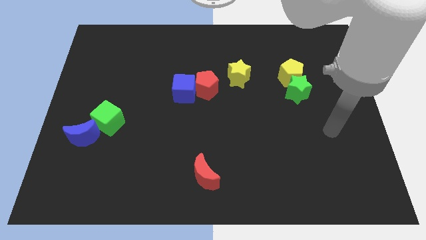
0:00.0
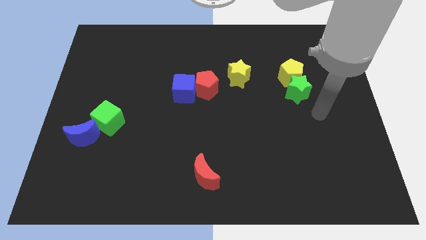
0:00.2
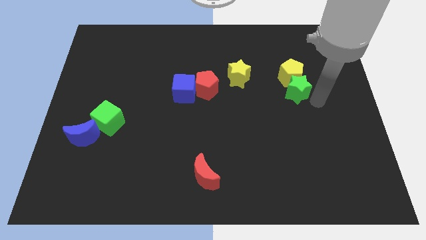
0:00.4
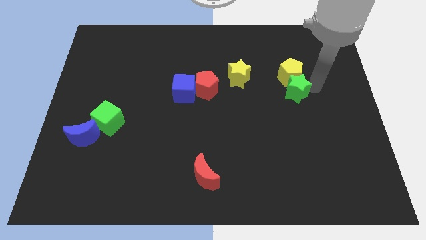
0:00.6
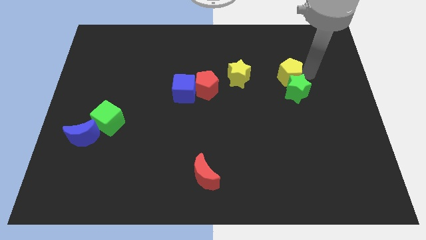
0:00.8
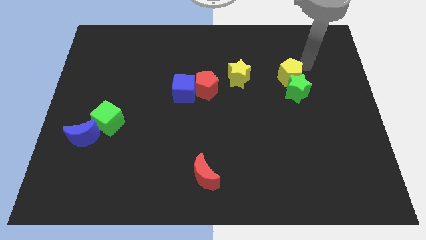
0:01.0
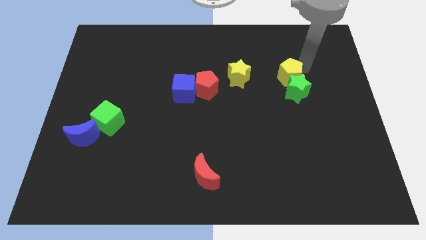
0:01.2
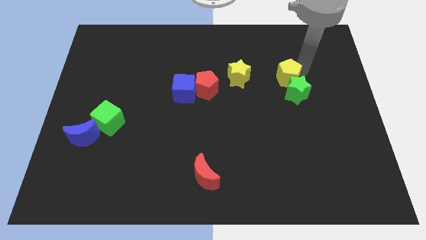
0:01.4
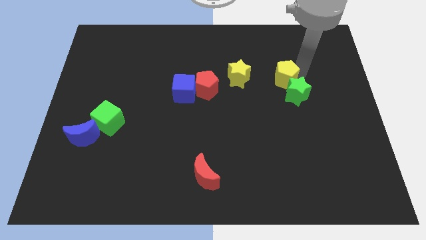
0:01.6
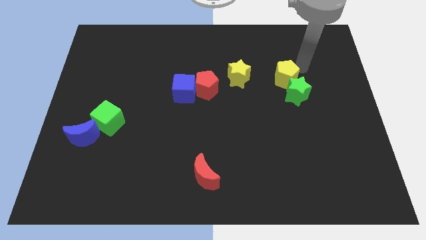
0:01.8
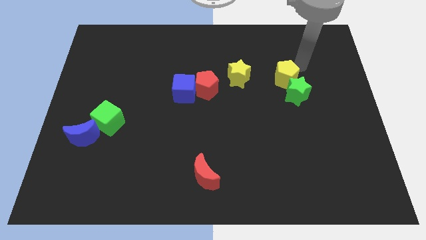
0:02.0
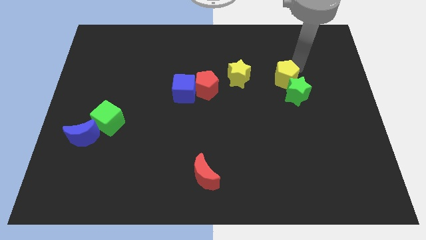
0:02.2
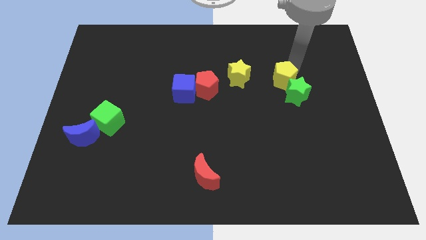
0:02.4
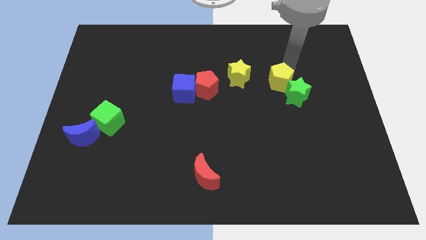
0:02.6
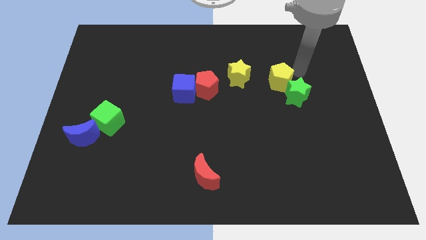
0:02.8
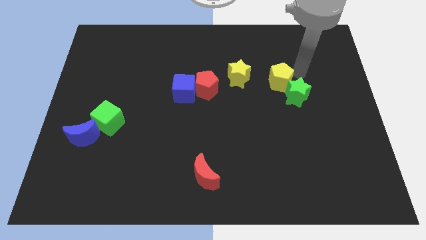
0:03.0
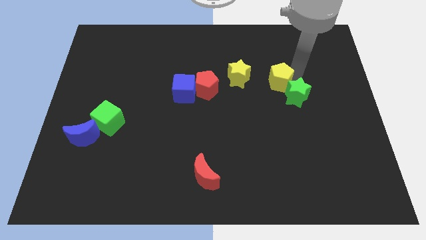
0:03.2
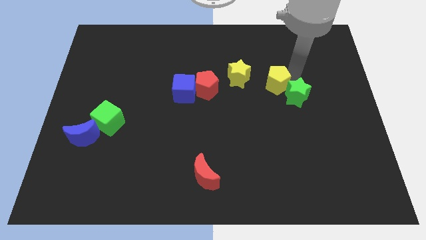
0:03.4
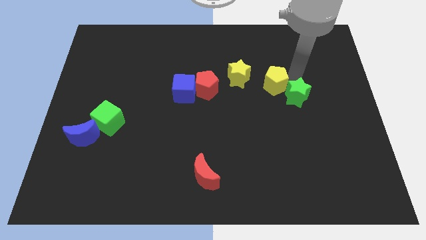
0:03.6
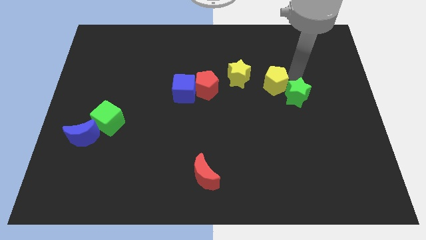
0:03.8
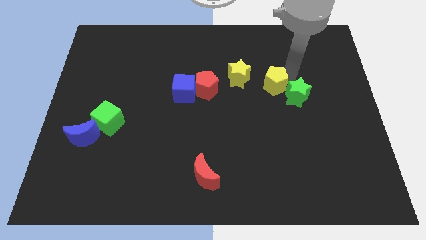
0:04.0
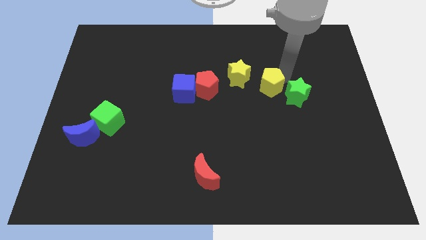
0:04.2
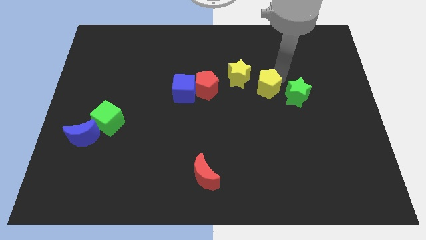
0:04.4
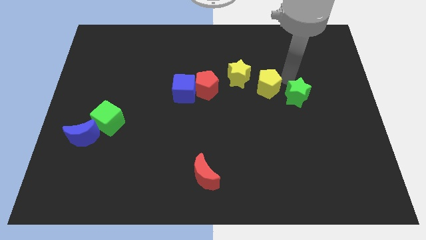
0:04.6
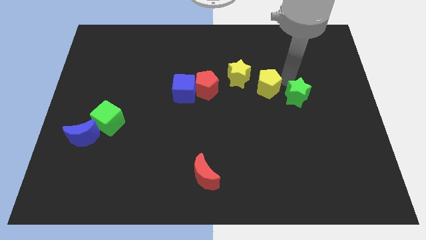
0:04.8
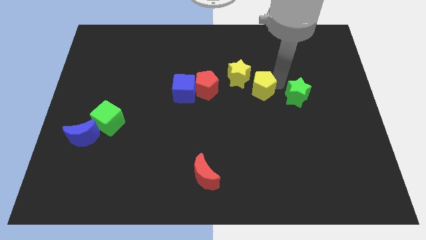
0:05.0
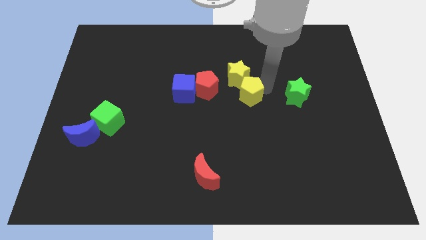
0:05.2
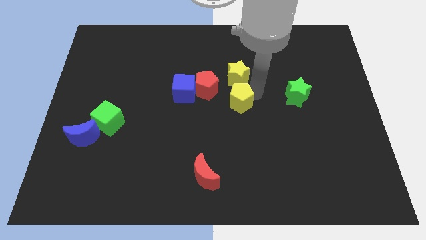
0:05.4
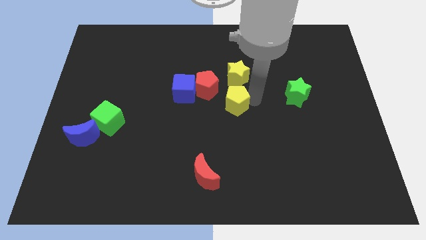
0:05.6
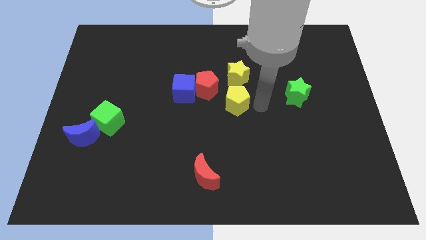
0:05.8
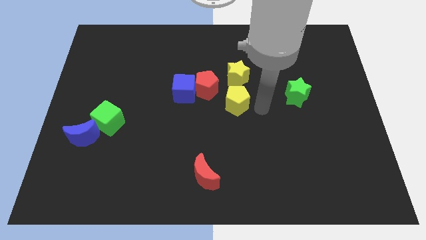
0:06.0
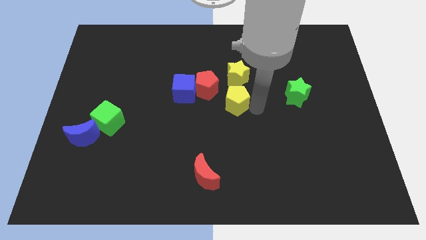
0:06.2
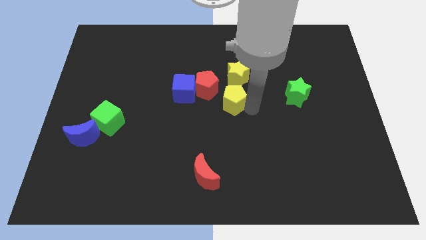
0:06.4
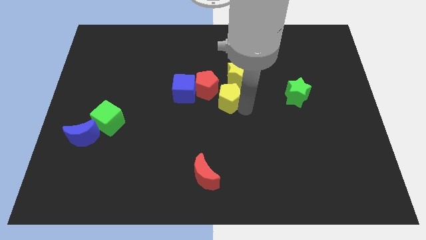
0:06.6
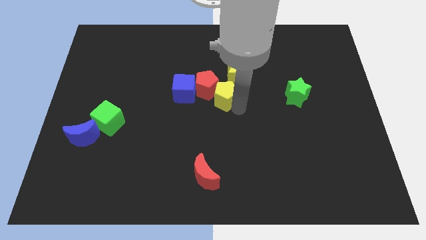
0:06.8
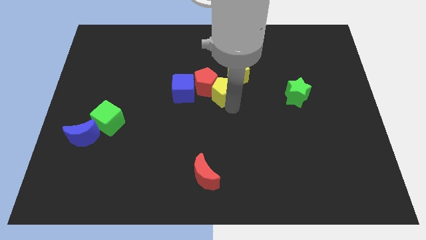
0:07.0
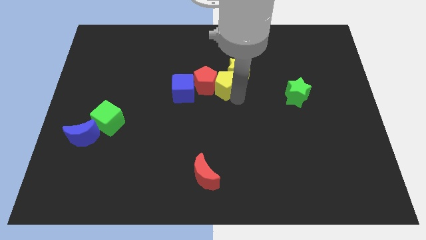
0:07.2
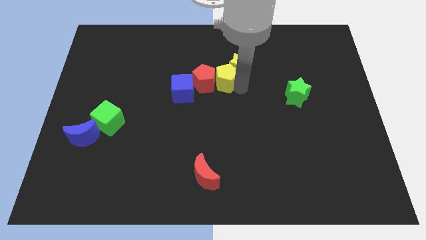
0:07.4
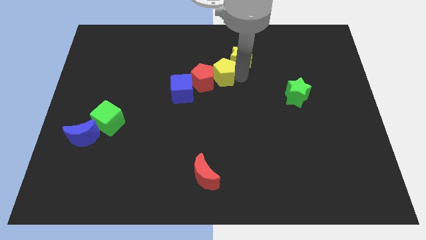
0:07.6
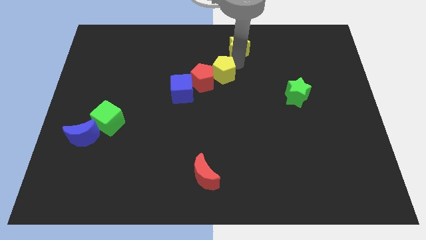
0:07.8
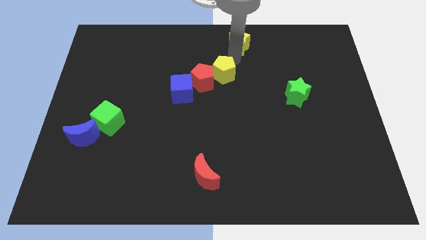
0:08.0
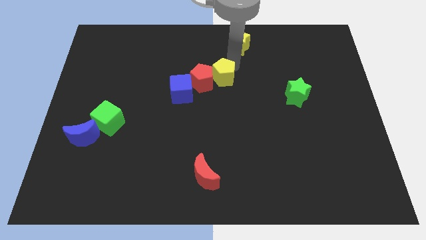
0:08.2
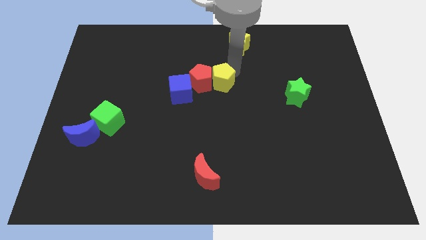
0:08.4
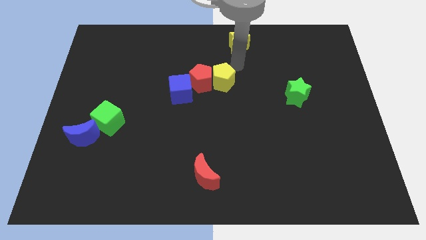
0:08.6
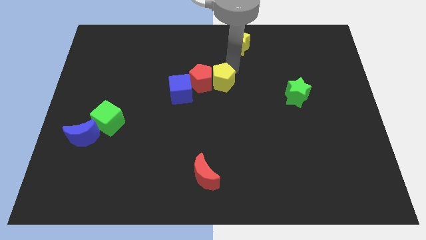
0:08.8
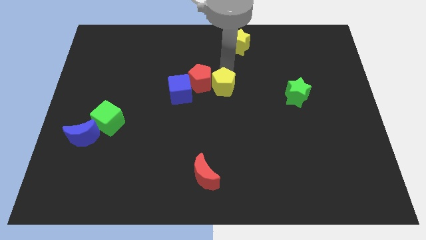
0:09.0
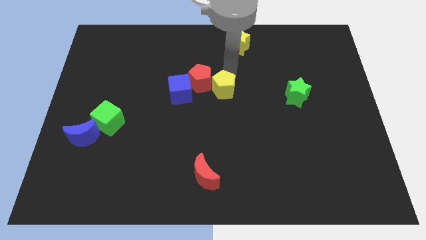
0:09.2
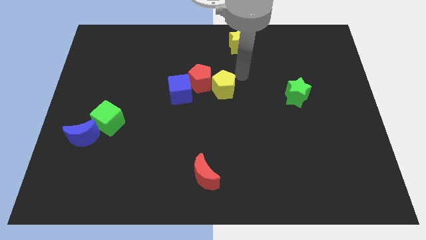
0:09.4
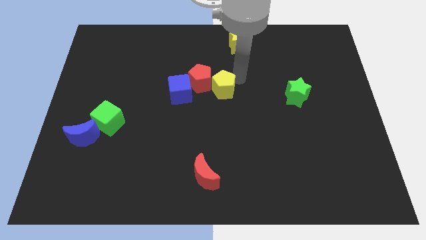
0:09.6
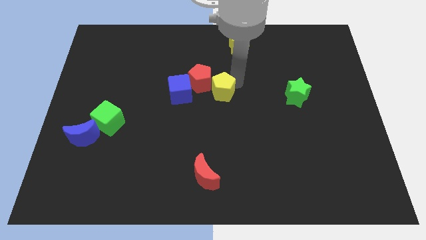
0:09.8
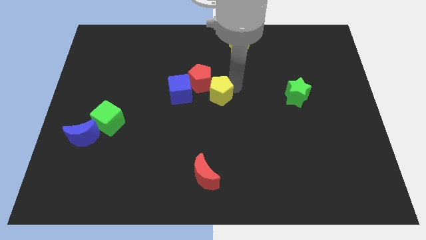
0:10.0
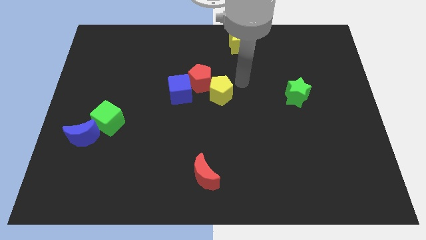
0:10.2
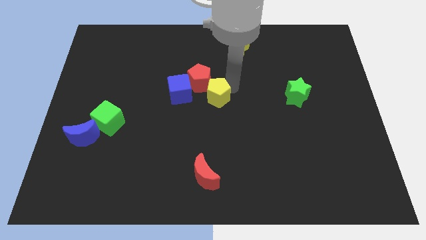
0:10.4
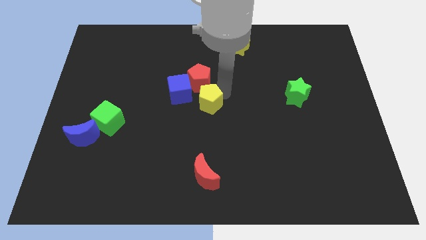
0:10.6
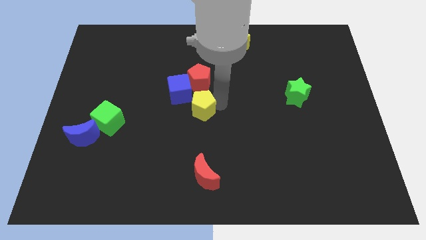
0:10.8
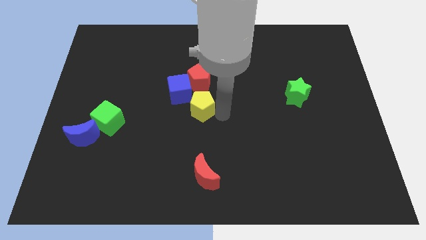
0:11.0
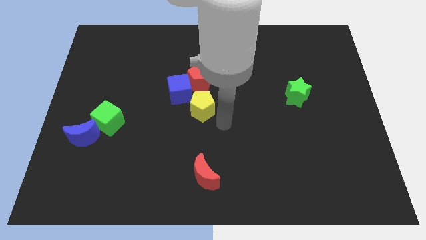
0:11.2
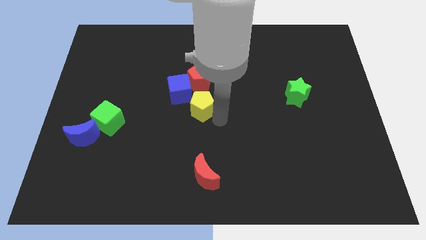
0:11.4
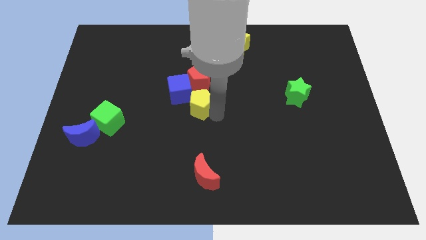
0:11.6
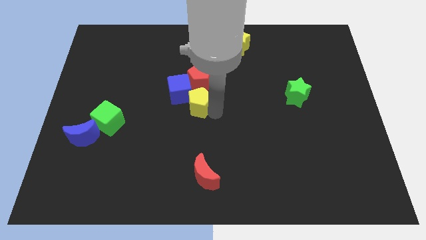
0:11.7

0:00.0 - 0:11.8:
push the yellow pentagon close to the blue cube
